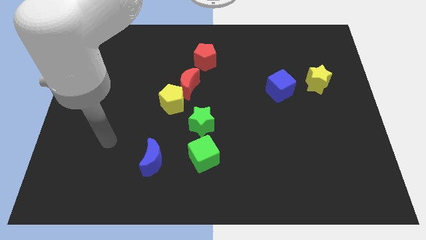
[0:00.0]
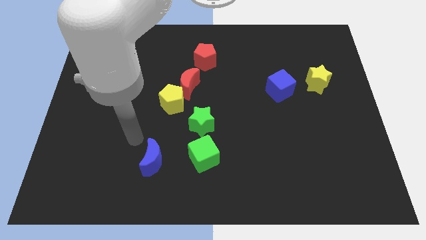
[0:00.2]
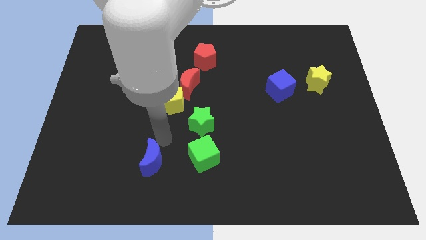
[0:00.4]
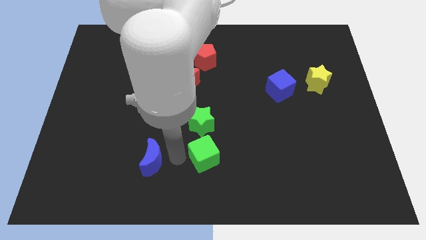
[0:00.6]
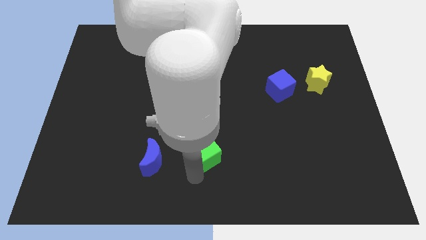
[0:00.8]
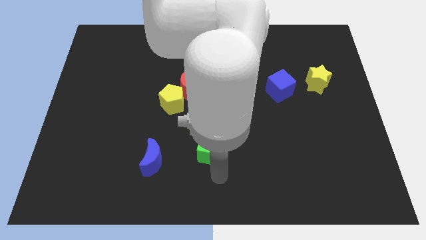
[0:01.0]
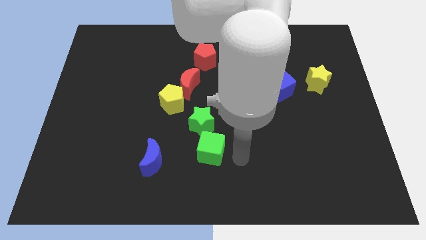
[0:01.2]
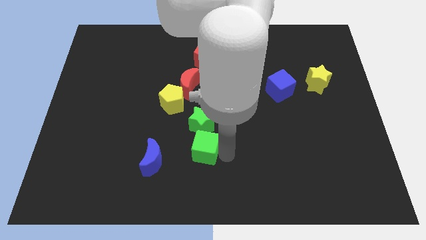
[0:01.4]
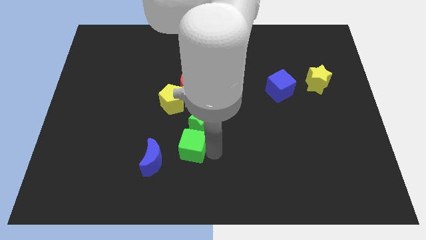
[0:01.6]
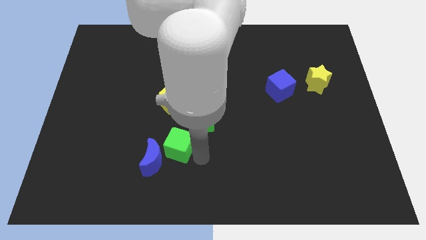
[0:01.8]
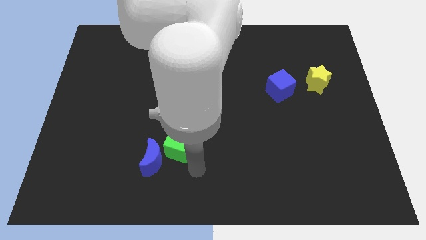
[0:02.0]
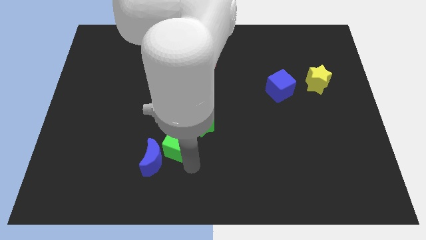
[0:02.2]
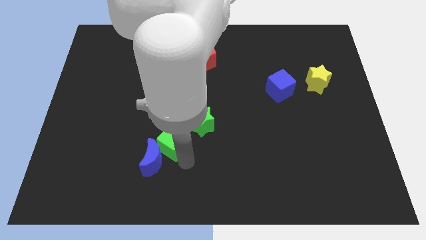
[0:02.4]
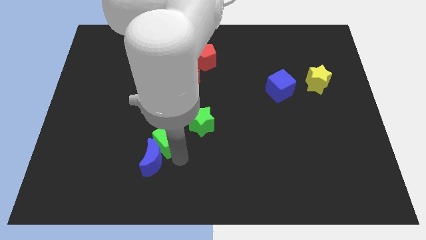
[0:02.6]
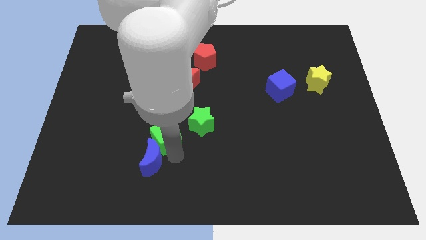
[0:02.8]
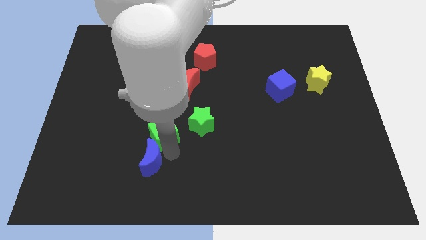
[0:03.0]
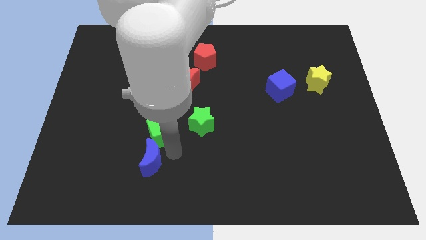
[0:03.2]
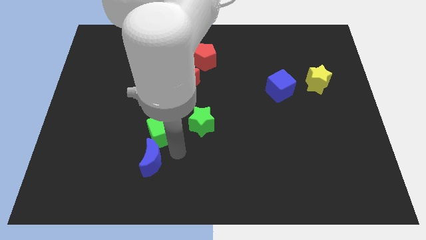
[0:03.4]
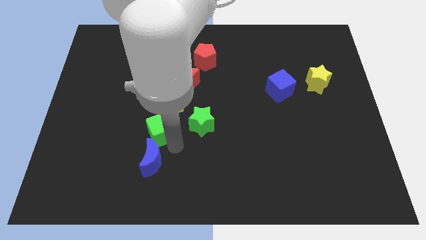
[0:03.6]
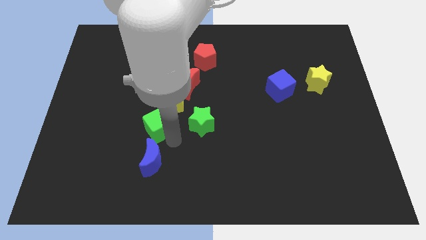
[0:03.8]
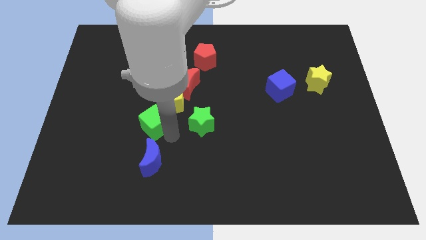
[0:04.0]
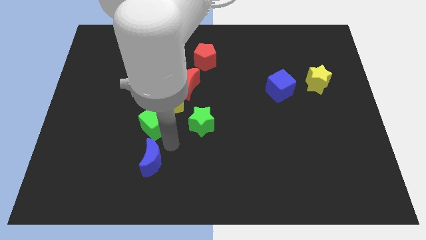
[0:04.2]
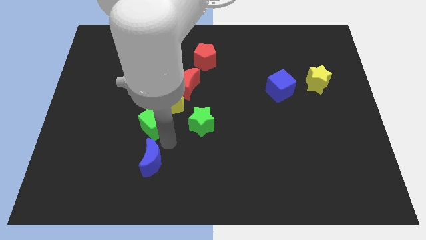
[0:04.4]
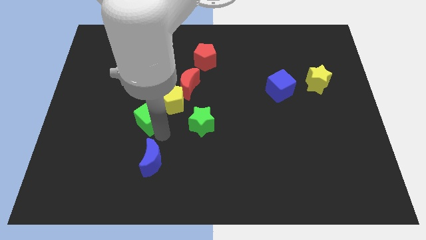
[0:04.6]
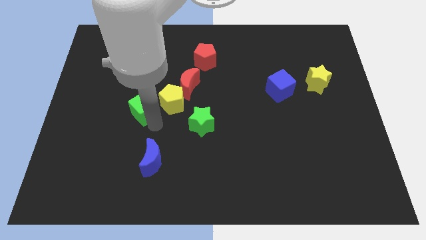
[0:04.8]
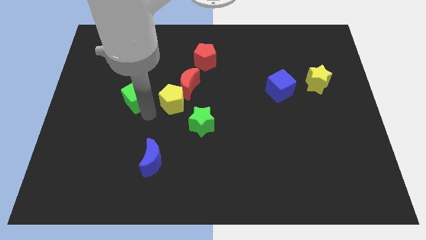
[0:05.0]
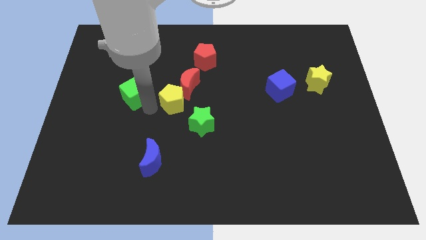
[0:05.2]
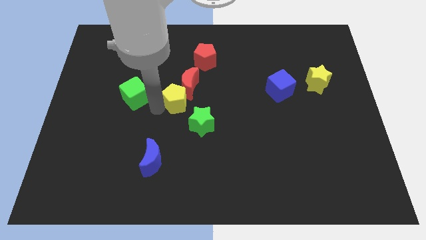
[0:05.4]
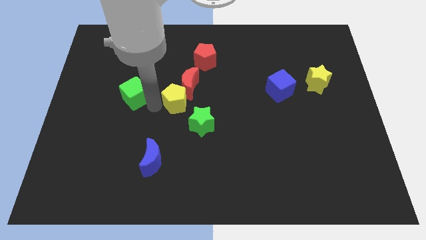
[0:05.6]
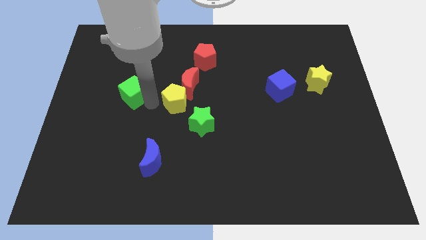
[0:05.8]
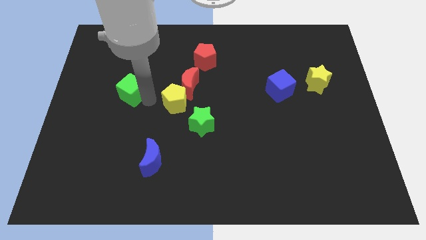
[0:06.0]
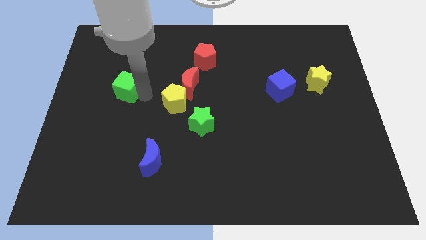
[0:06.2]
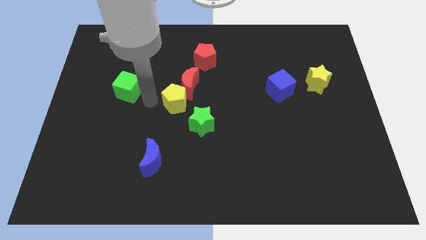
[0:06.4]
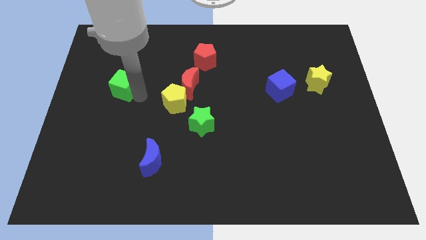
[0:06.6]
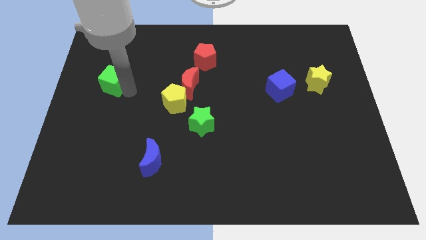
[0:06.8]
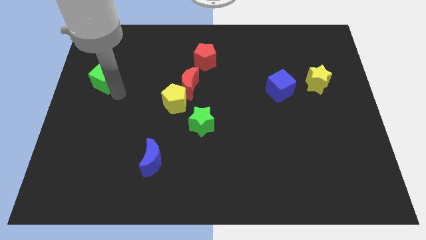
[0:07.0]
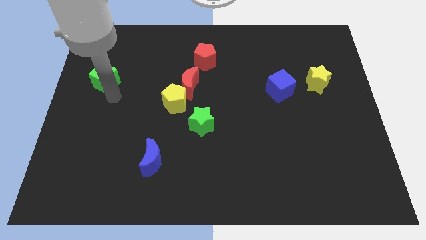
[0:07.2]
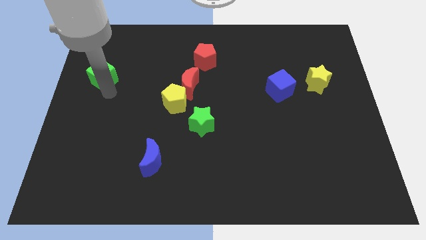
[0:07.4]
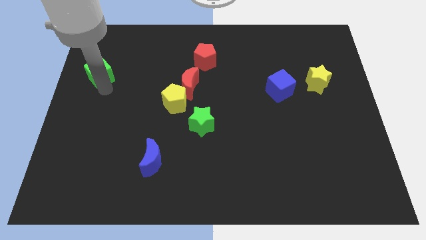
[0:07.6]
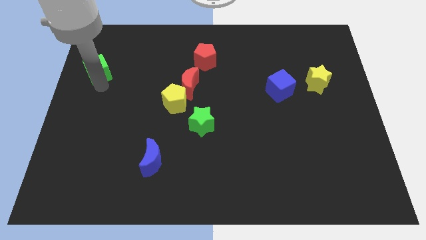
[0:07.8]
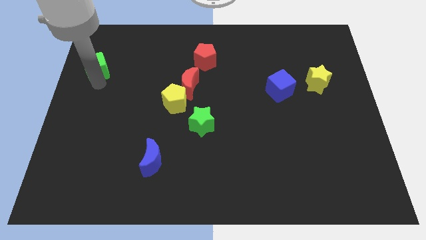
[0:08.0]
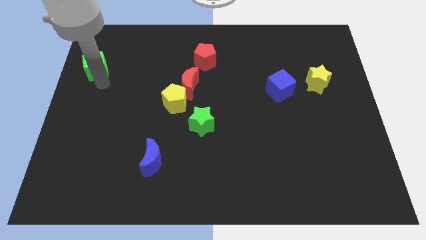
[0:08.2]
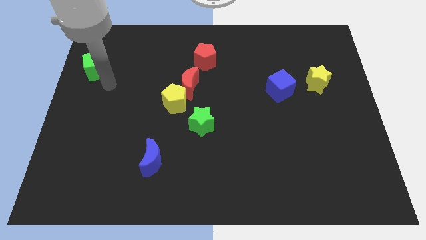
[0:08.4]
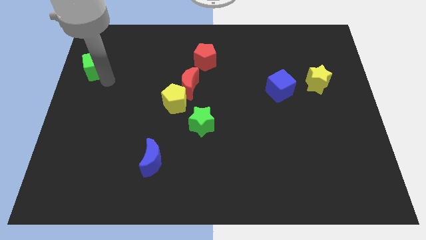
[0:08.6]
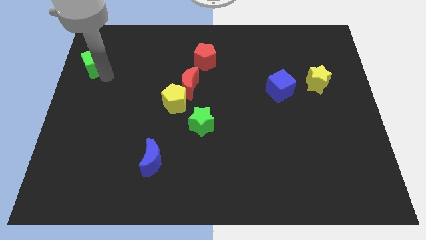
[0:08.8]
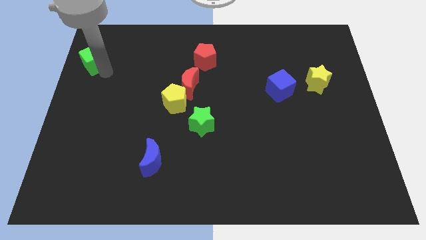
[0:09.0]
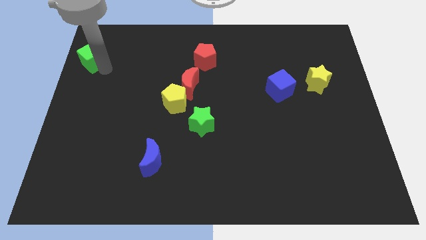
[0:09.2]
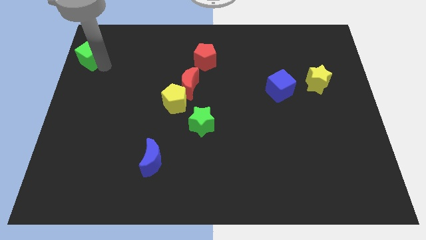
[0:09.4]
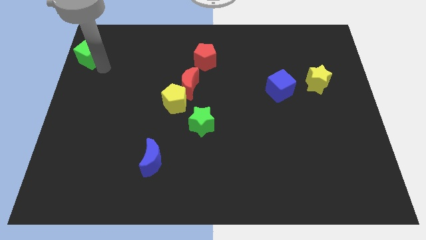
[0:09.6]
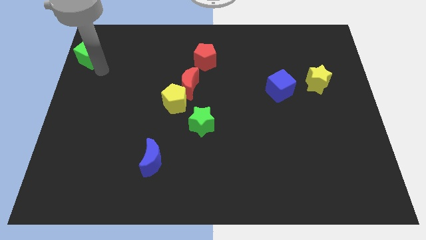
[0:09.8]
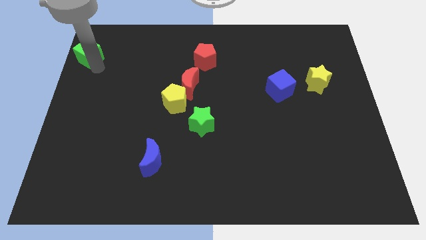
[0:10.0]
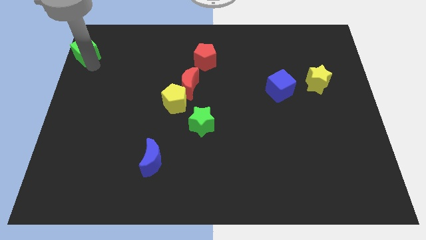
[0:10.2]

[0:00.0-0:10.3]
put the green cube to the top left of the board

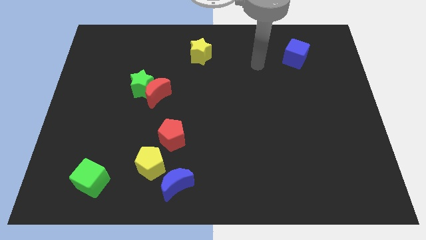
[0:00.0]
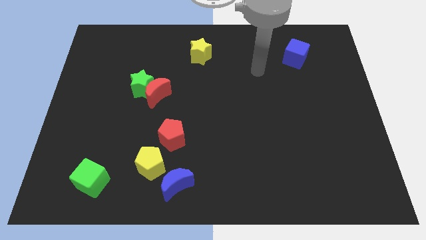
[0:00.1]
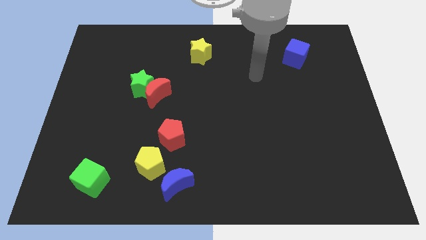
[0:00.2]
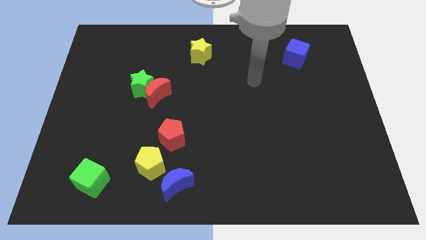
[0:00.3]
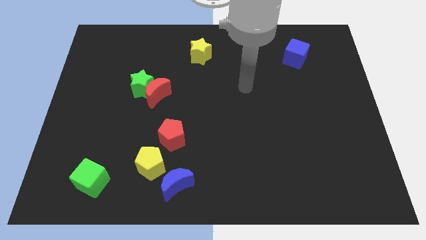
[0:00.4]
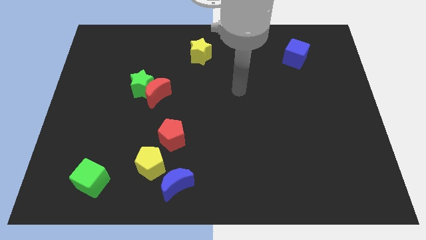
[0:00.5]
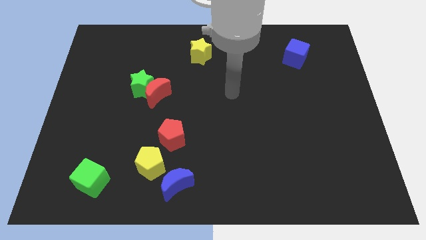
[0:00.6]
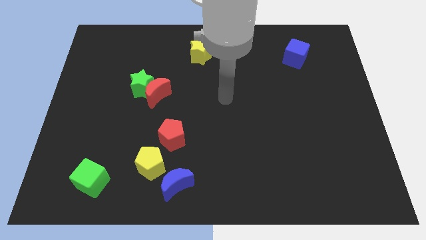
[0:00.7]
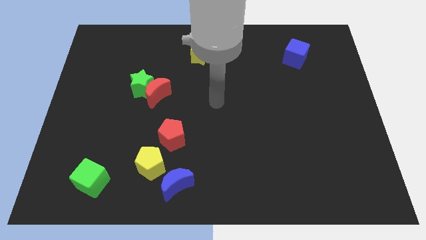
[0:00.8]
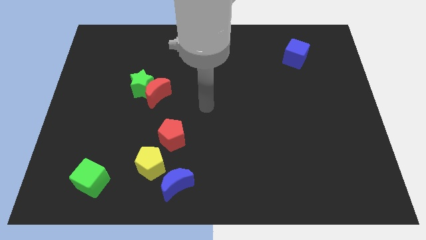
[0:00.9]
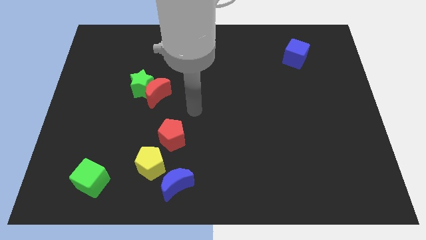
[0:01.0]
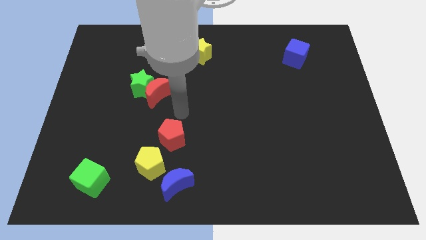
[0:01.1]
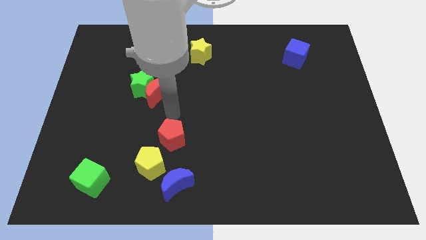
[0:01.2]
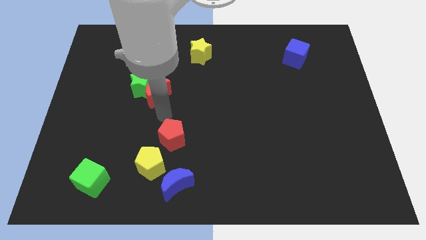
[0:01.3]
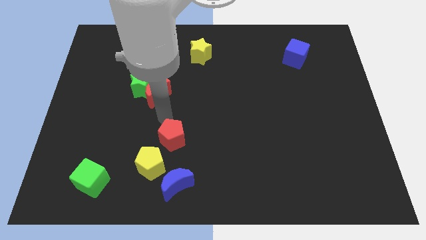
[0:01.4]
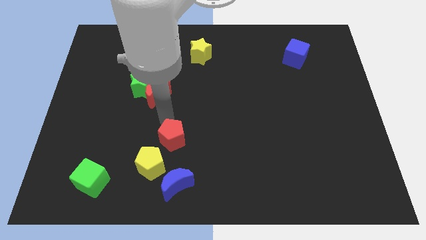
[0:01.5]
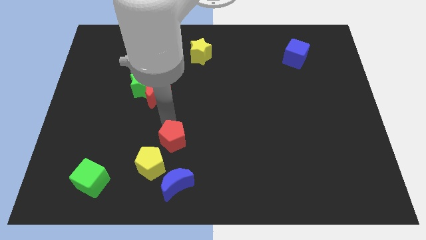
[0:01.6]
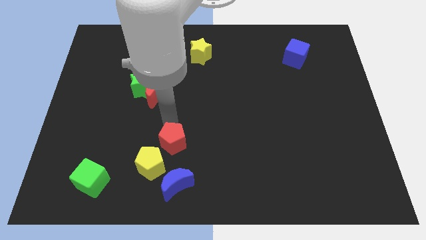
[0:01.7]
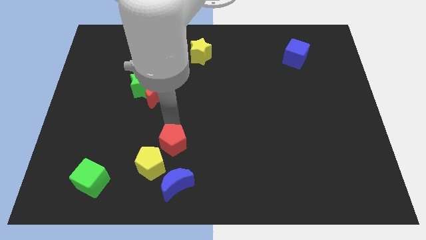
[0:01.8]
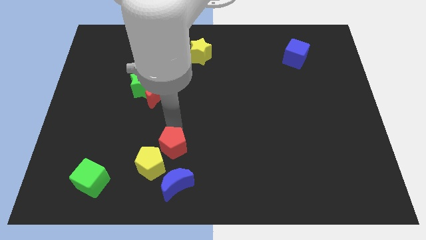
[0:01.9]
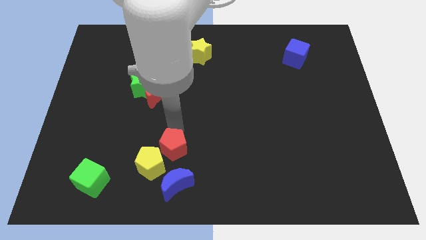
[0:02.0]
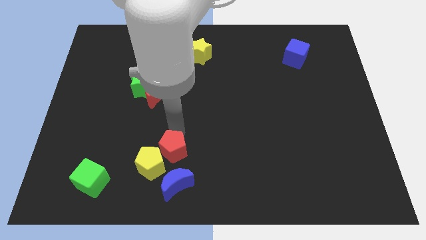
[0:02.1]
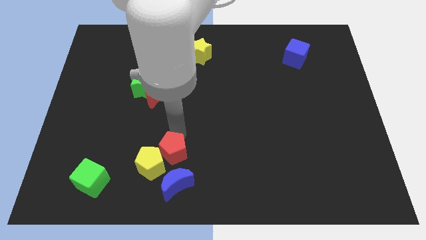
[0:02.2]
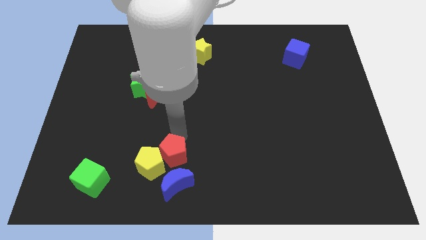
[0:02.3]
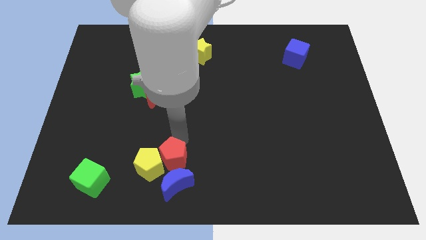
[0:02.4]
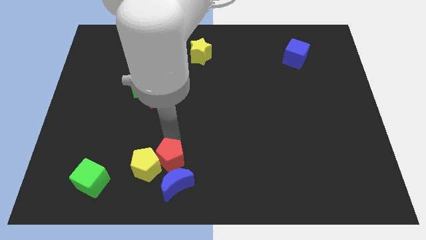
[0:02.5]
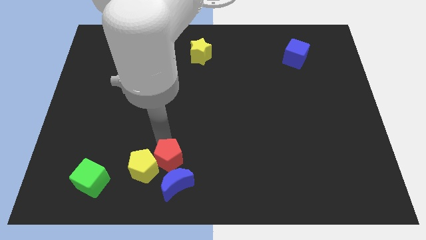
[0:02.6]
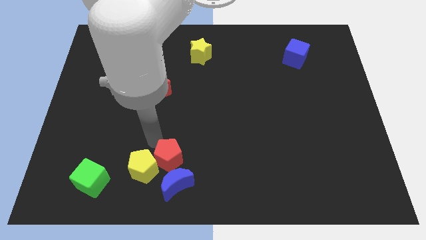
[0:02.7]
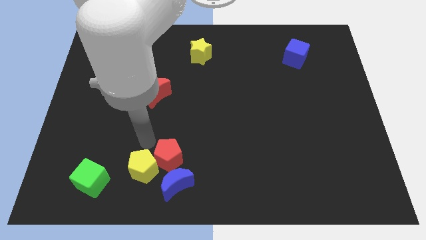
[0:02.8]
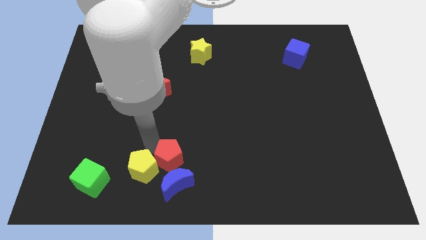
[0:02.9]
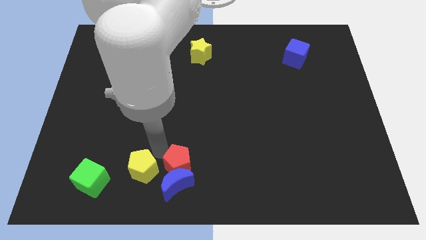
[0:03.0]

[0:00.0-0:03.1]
put the red pentagon to the bottom
